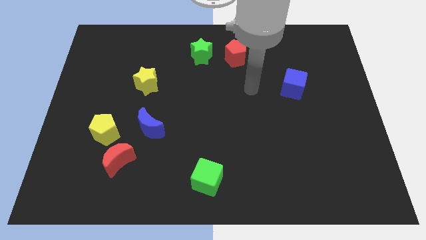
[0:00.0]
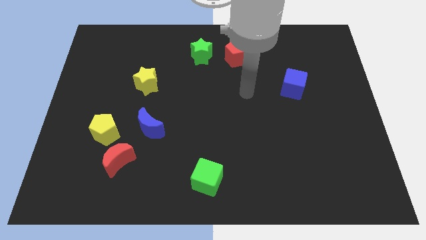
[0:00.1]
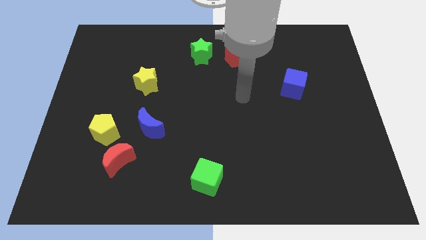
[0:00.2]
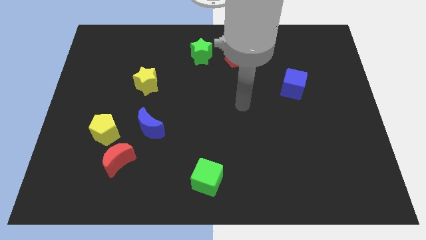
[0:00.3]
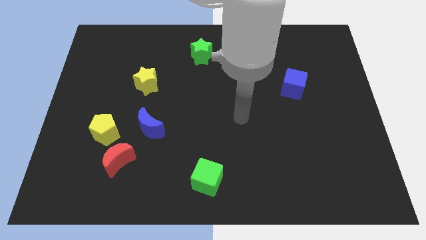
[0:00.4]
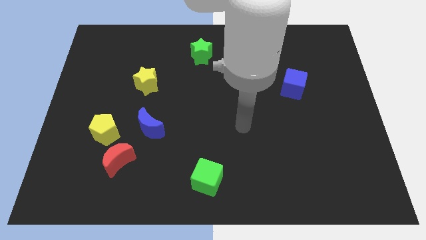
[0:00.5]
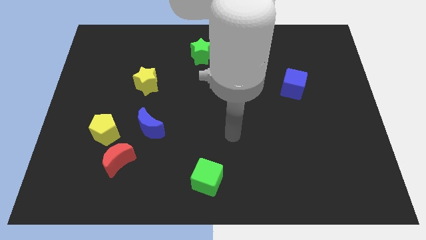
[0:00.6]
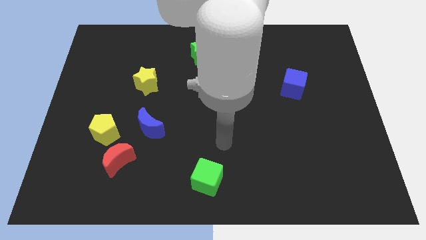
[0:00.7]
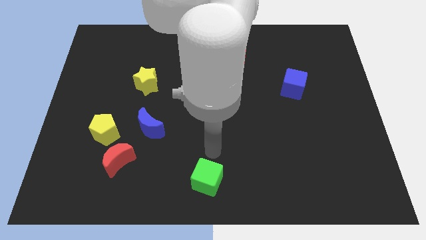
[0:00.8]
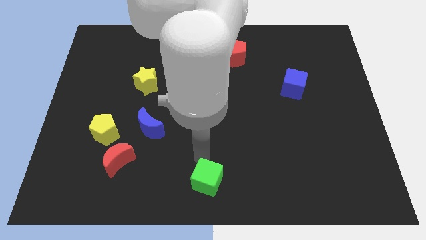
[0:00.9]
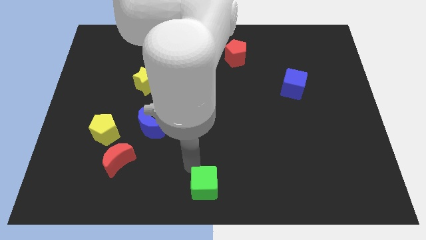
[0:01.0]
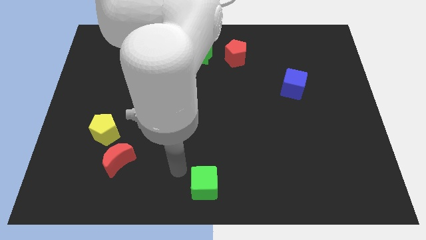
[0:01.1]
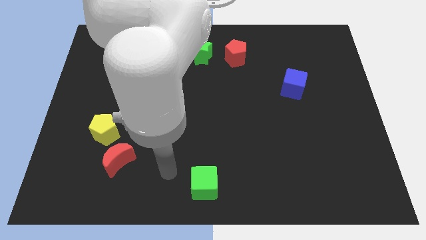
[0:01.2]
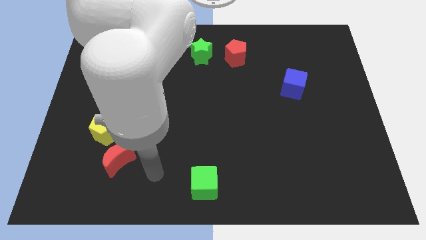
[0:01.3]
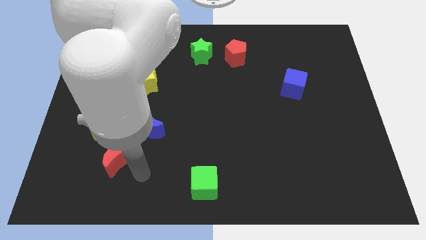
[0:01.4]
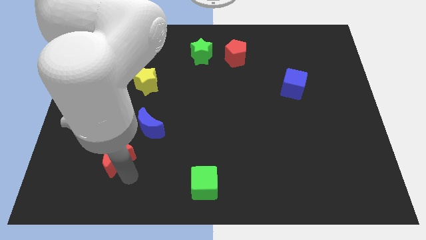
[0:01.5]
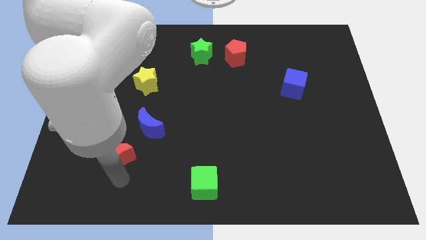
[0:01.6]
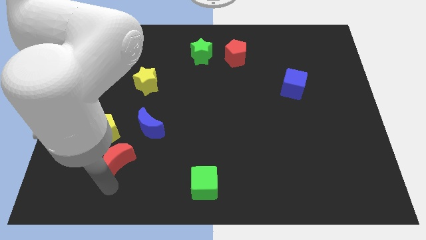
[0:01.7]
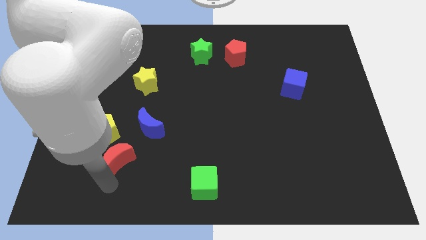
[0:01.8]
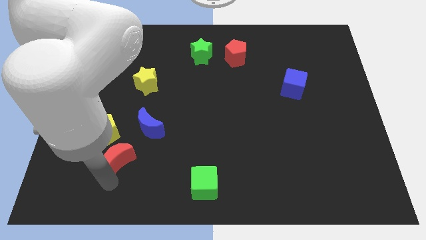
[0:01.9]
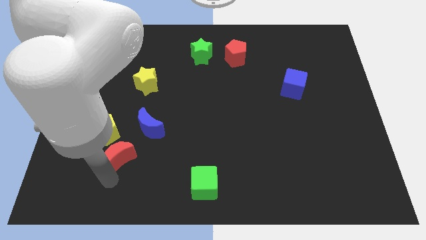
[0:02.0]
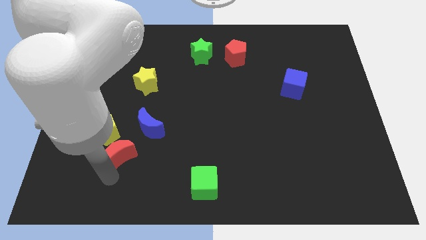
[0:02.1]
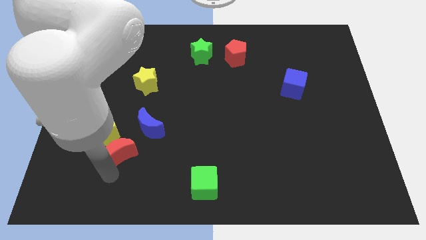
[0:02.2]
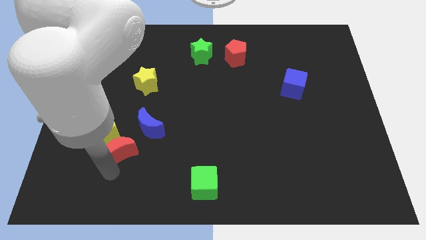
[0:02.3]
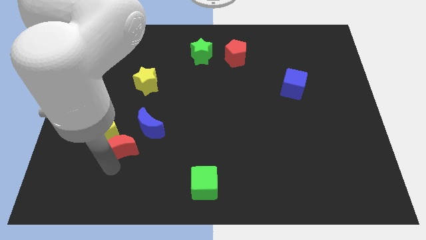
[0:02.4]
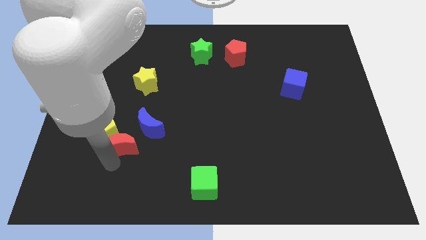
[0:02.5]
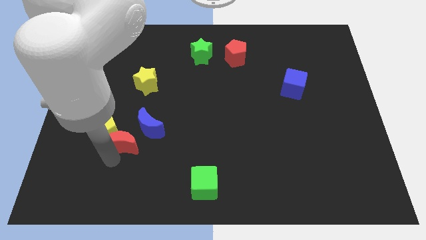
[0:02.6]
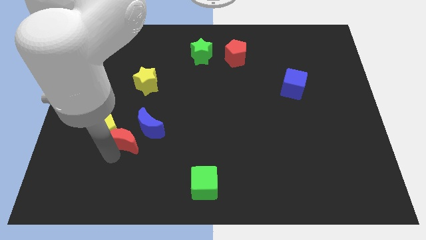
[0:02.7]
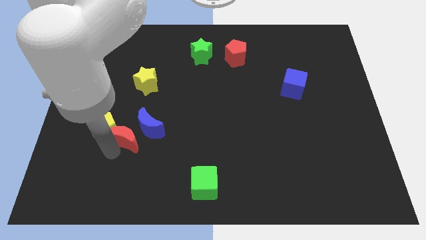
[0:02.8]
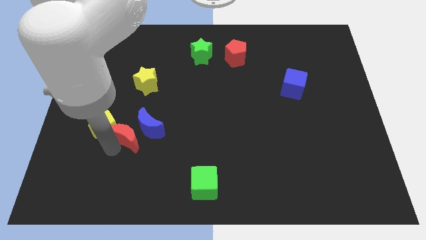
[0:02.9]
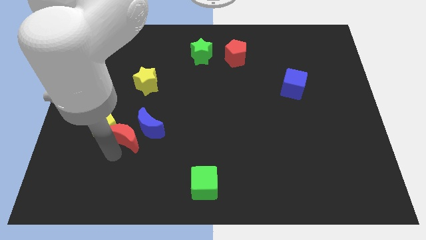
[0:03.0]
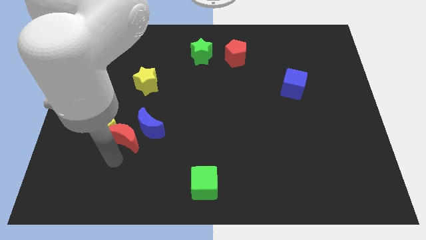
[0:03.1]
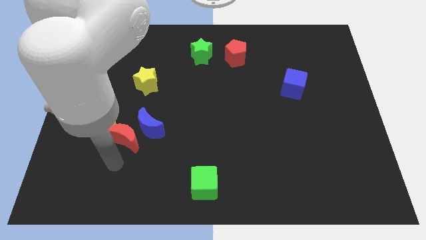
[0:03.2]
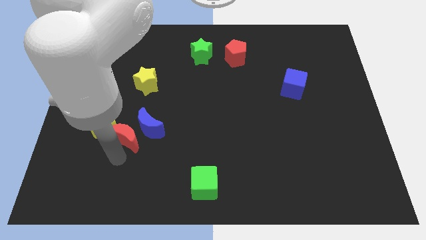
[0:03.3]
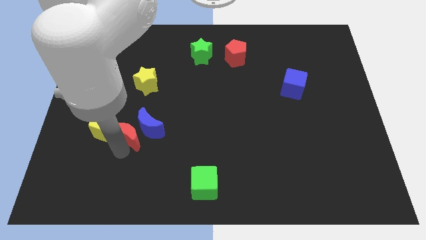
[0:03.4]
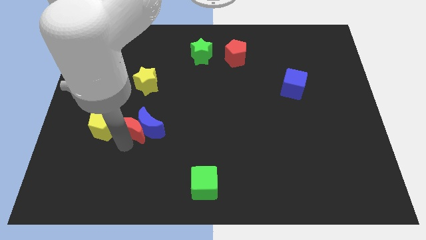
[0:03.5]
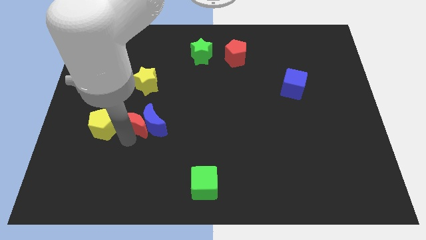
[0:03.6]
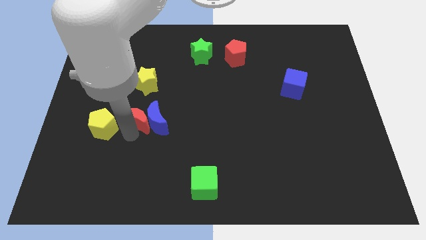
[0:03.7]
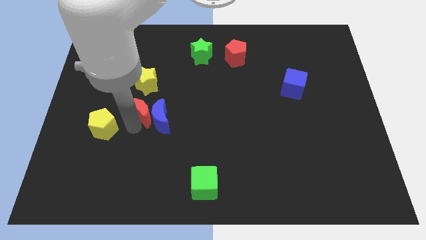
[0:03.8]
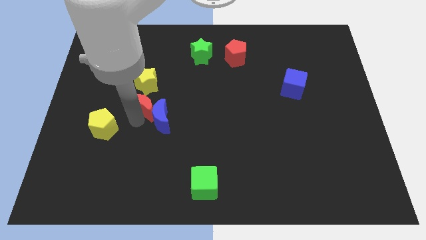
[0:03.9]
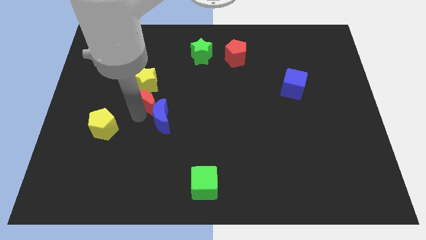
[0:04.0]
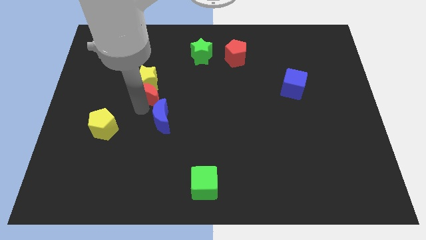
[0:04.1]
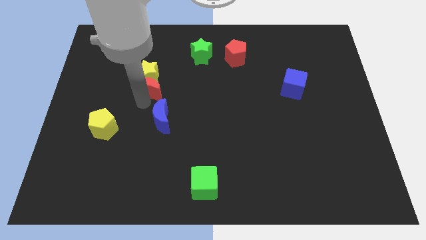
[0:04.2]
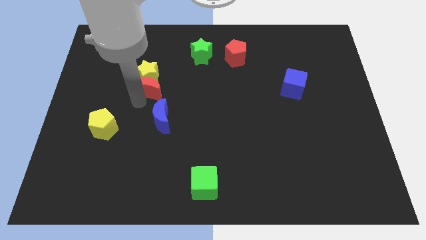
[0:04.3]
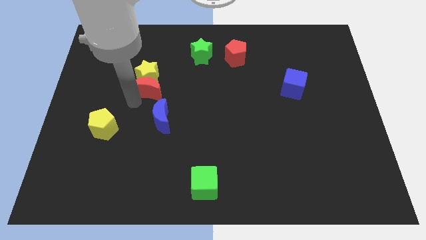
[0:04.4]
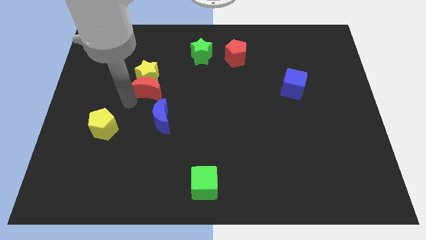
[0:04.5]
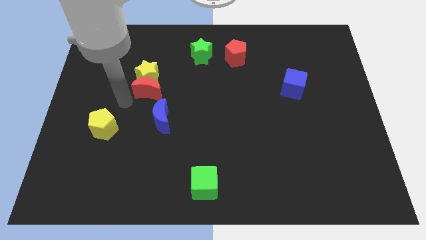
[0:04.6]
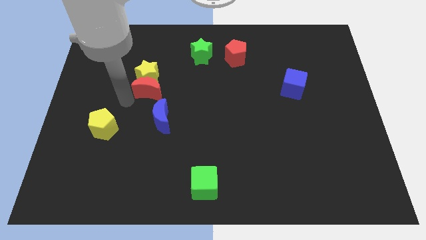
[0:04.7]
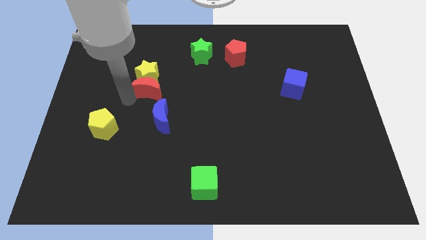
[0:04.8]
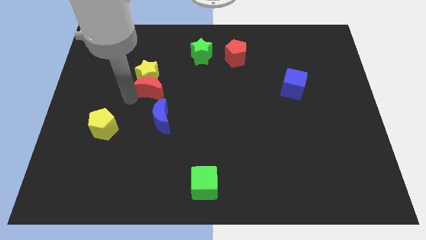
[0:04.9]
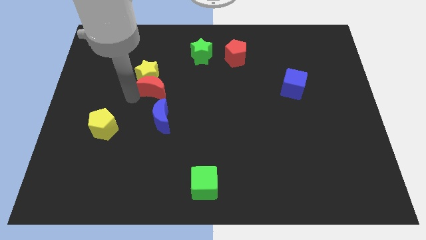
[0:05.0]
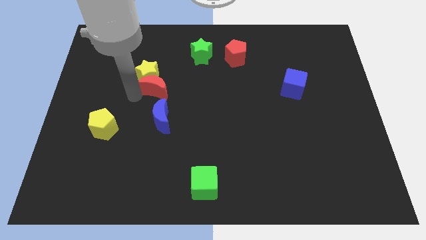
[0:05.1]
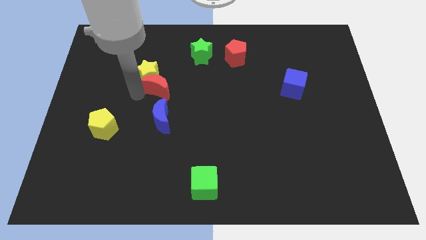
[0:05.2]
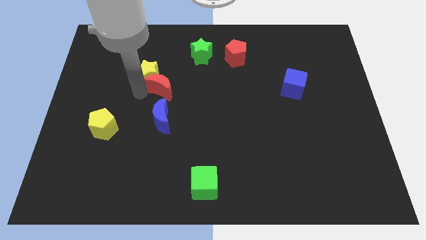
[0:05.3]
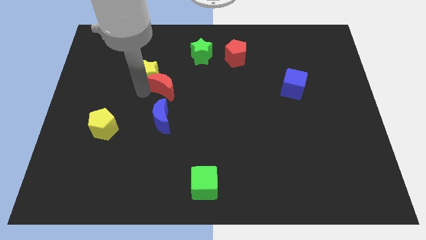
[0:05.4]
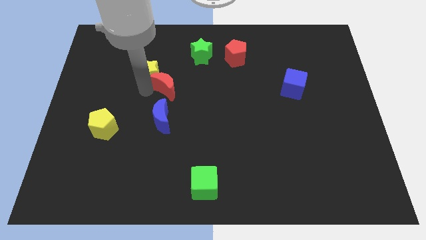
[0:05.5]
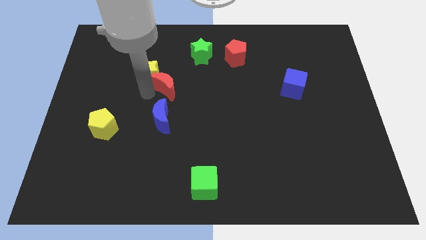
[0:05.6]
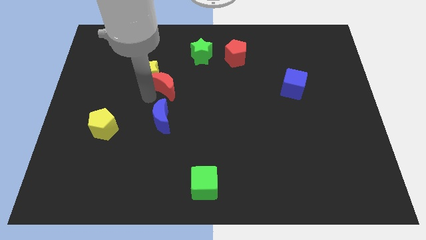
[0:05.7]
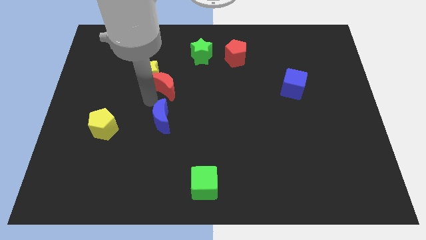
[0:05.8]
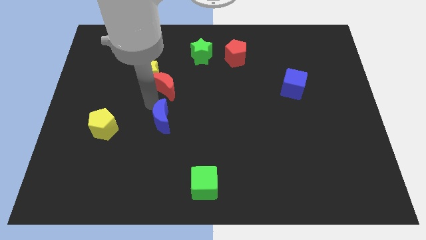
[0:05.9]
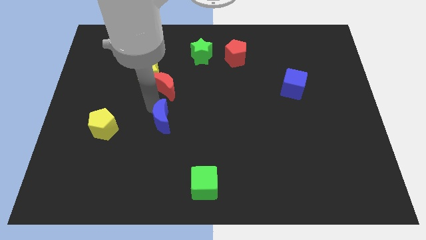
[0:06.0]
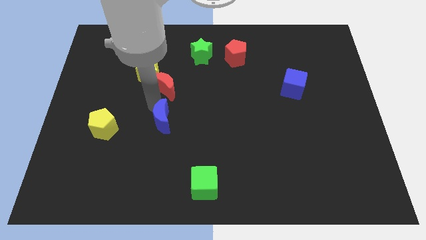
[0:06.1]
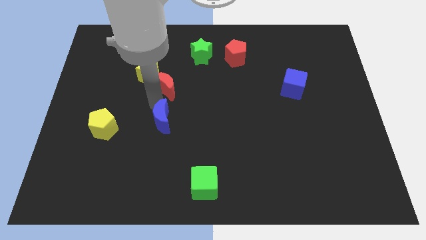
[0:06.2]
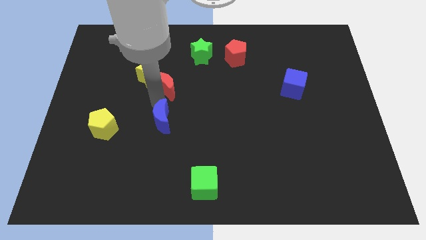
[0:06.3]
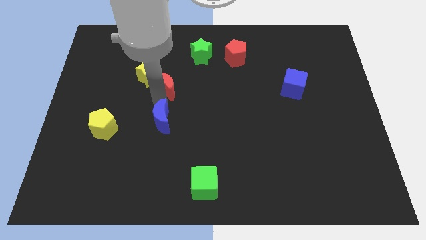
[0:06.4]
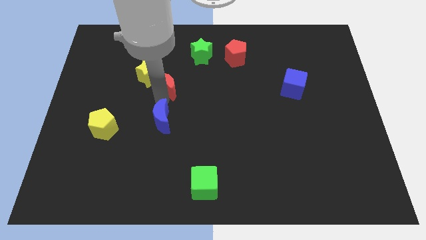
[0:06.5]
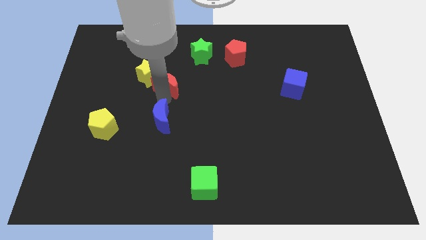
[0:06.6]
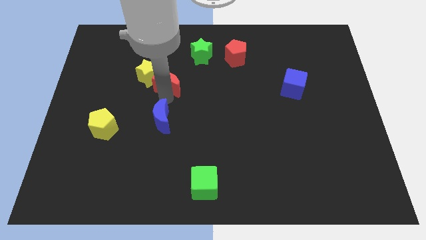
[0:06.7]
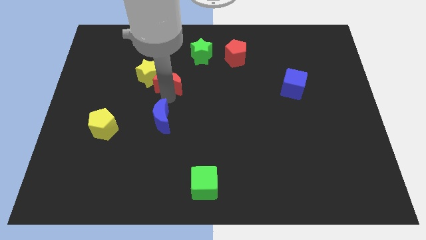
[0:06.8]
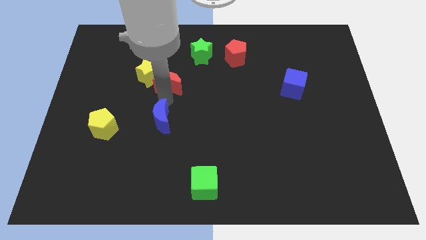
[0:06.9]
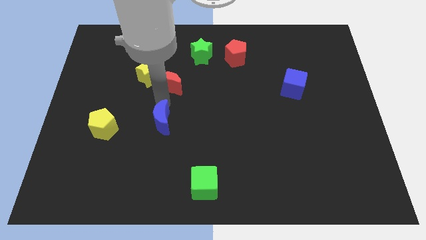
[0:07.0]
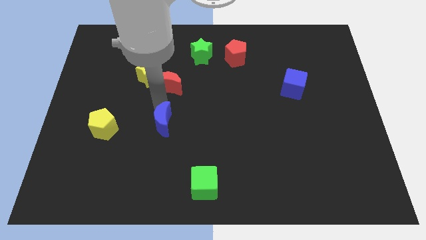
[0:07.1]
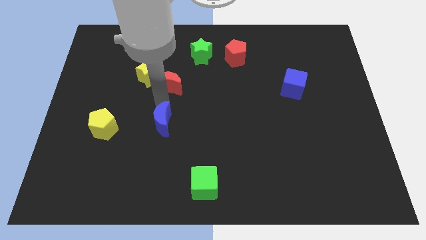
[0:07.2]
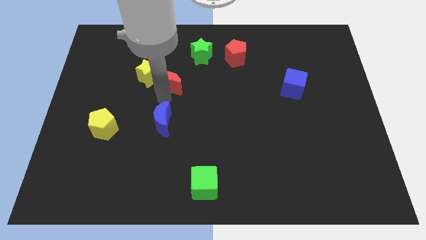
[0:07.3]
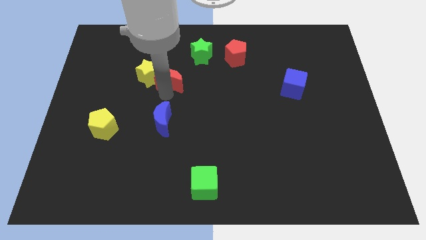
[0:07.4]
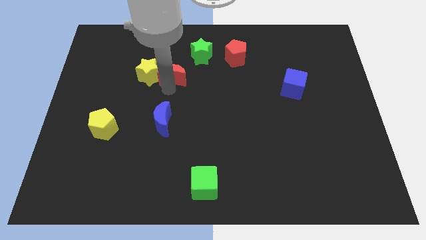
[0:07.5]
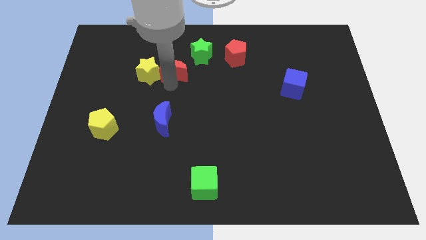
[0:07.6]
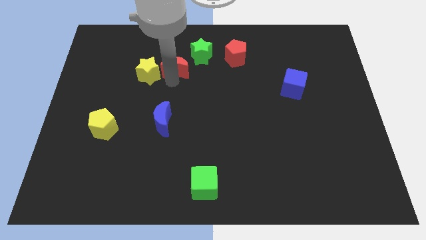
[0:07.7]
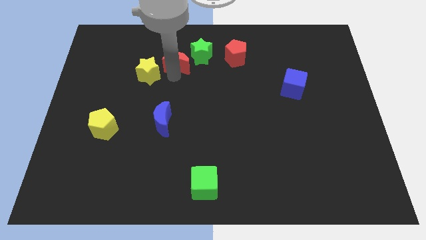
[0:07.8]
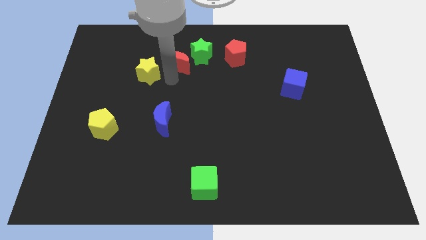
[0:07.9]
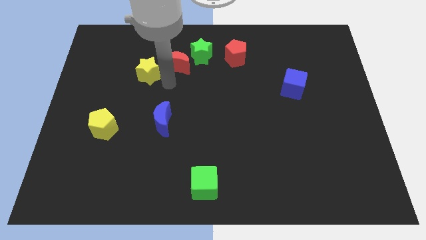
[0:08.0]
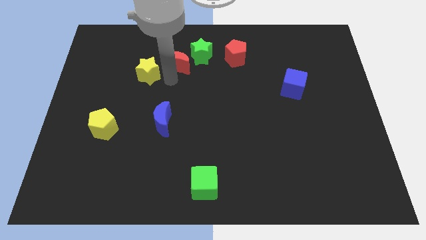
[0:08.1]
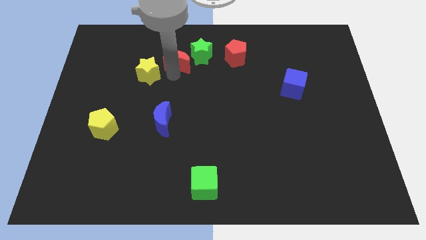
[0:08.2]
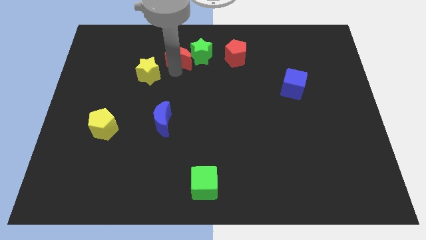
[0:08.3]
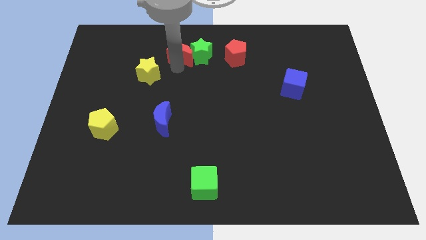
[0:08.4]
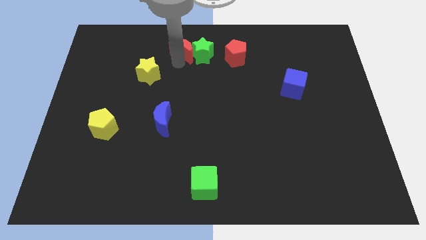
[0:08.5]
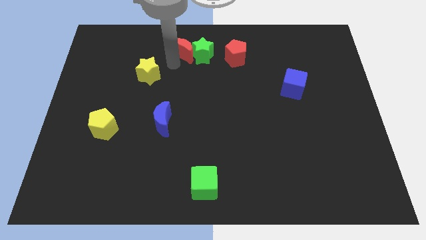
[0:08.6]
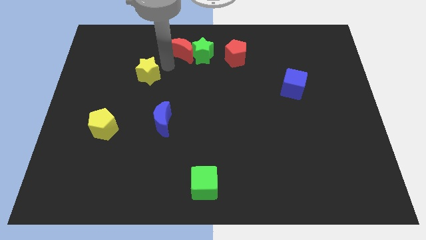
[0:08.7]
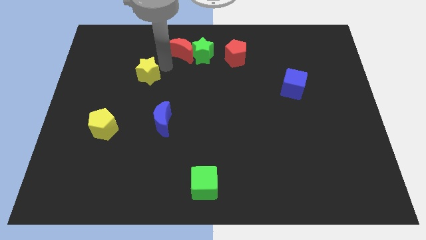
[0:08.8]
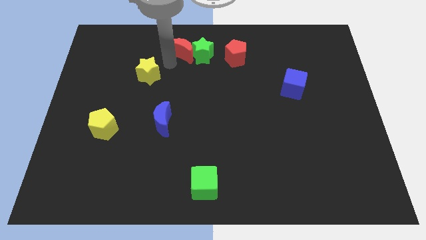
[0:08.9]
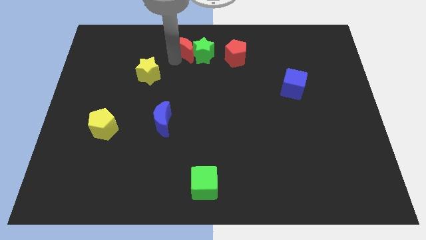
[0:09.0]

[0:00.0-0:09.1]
put the red moon to the towards your base
